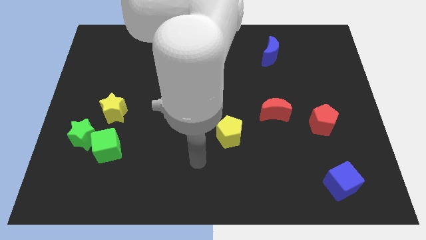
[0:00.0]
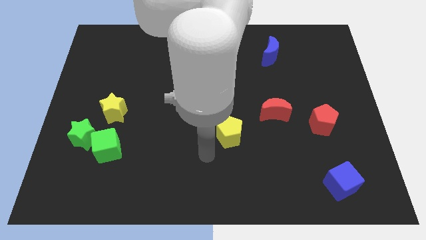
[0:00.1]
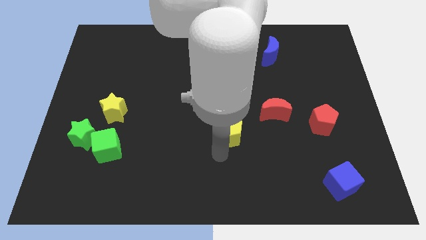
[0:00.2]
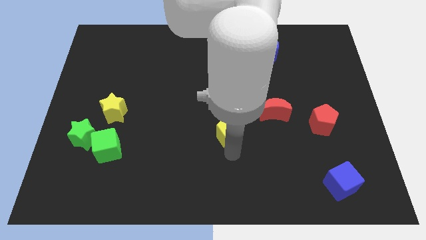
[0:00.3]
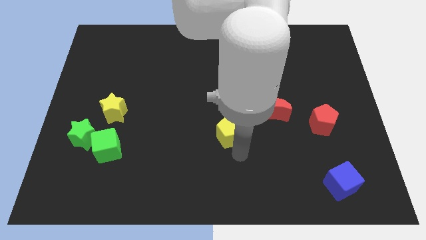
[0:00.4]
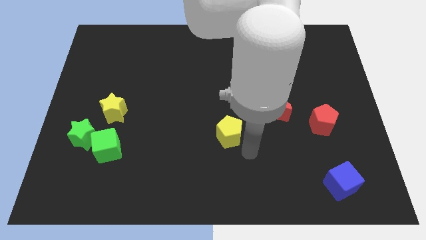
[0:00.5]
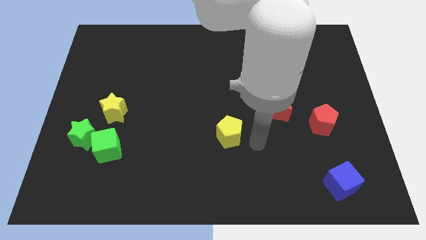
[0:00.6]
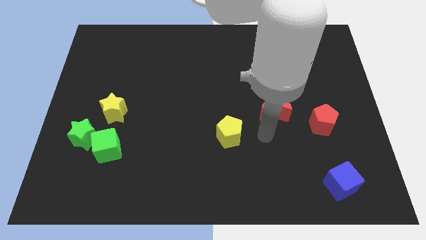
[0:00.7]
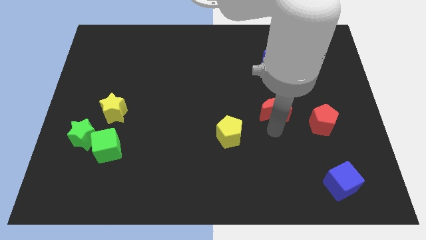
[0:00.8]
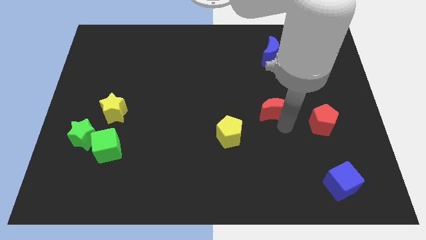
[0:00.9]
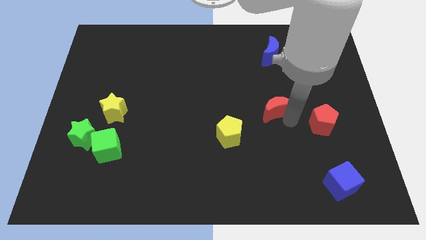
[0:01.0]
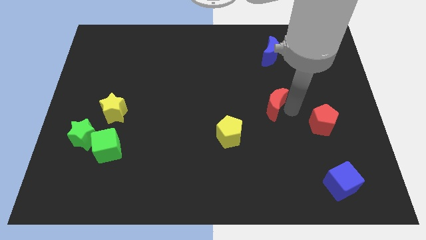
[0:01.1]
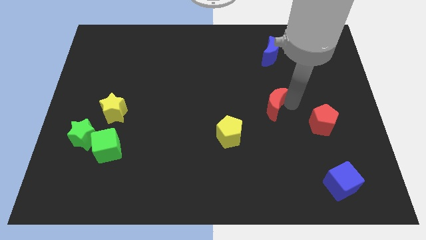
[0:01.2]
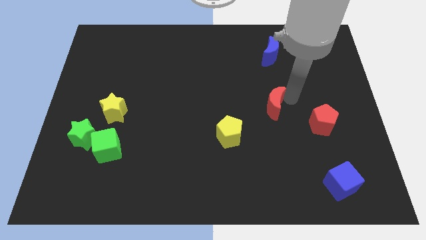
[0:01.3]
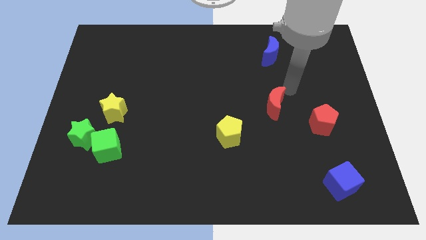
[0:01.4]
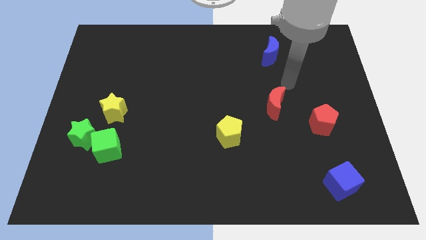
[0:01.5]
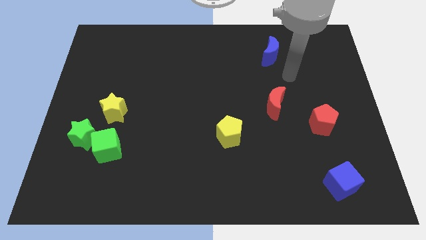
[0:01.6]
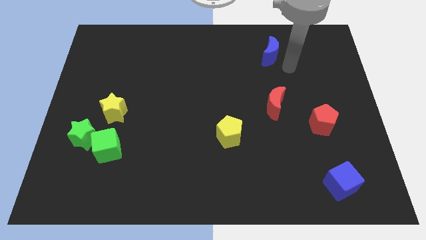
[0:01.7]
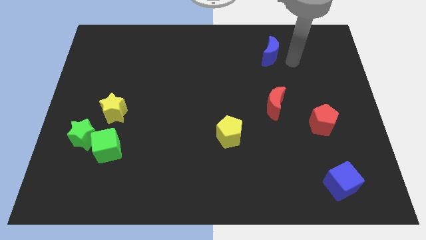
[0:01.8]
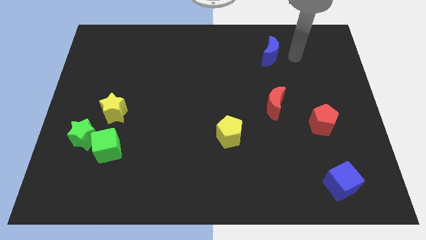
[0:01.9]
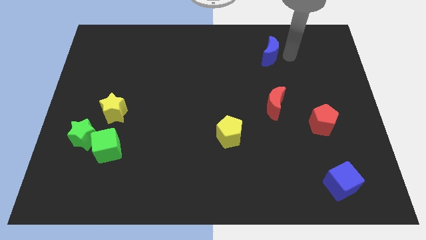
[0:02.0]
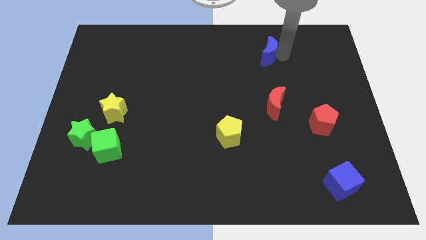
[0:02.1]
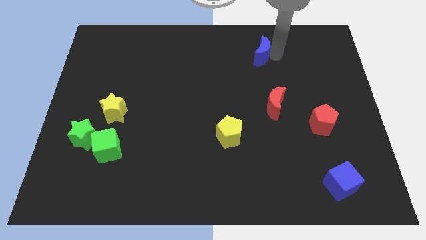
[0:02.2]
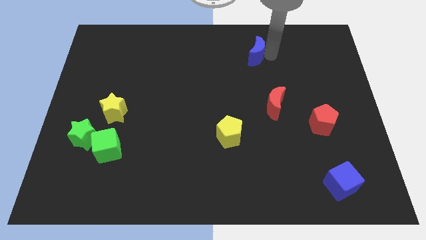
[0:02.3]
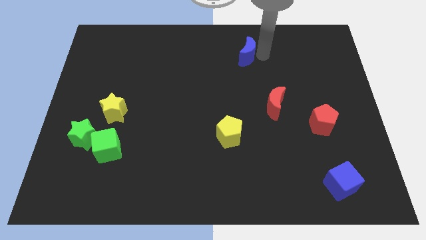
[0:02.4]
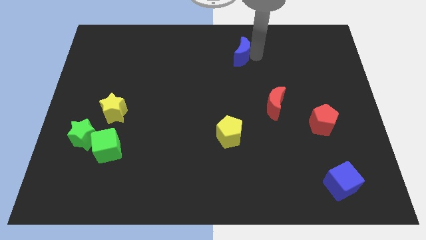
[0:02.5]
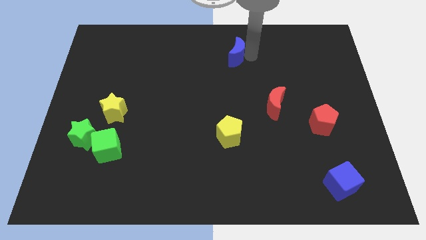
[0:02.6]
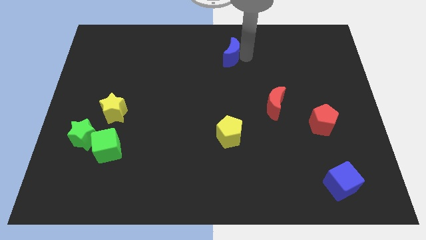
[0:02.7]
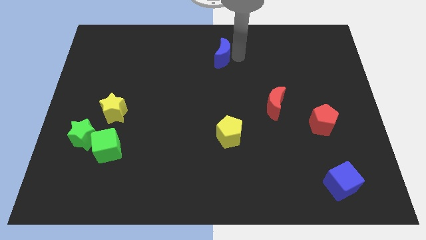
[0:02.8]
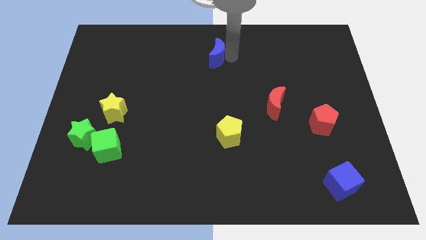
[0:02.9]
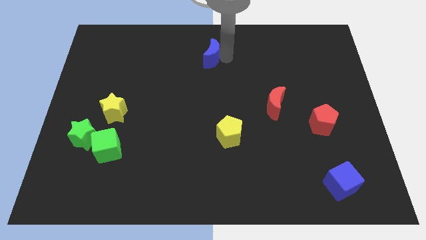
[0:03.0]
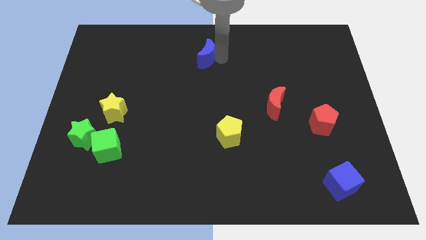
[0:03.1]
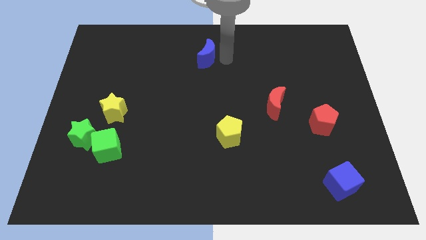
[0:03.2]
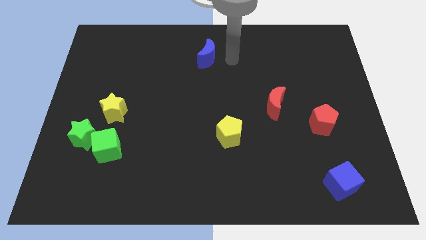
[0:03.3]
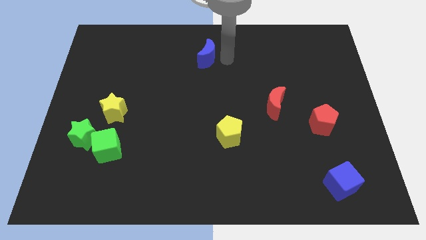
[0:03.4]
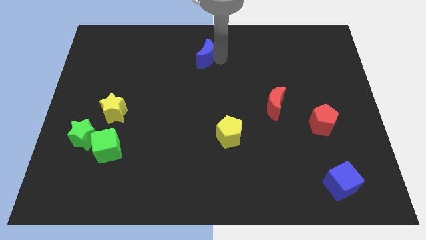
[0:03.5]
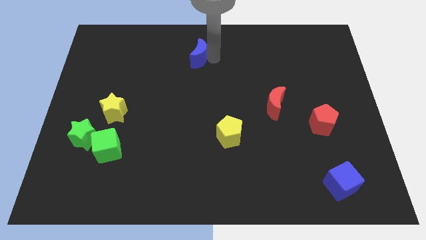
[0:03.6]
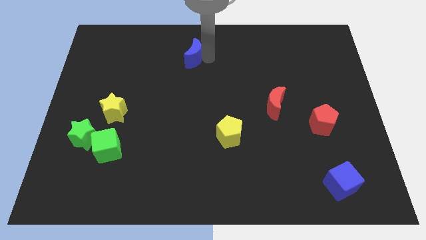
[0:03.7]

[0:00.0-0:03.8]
push the blue moon left

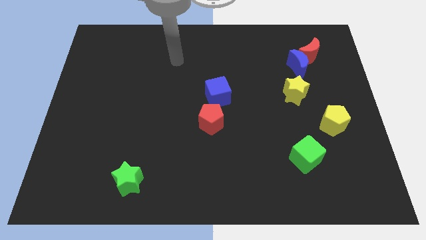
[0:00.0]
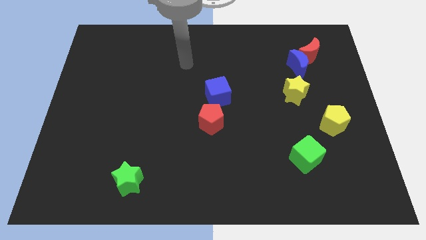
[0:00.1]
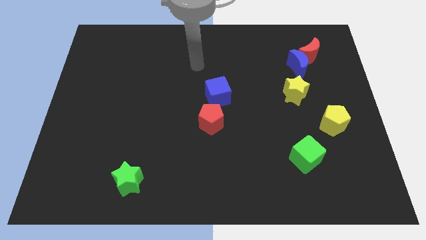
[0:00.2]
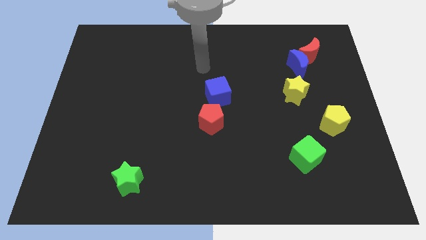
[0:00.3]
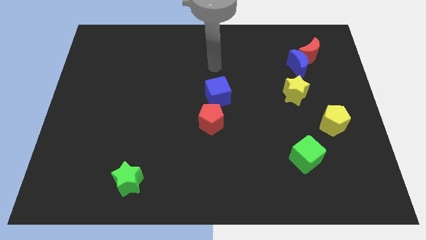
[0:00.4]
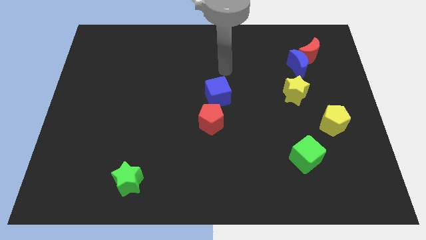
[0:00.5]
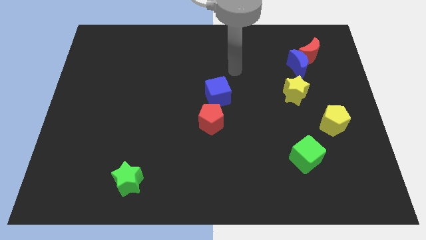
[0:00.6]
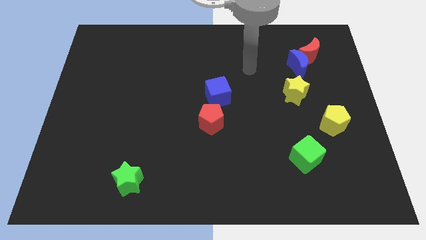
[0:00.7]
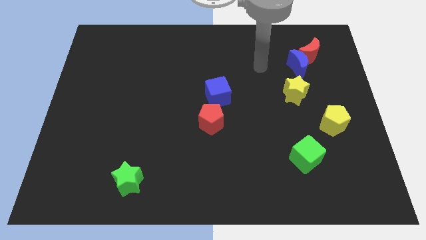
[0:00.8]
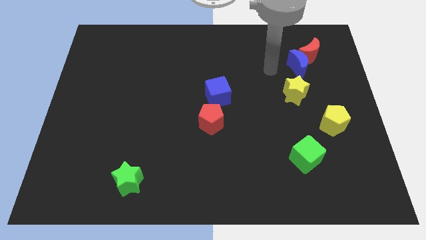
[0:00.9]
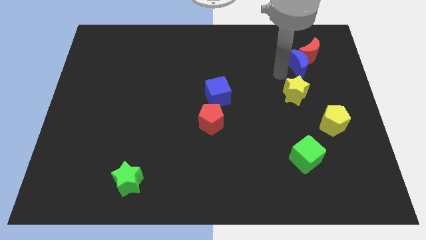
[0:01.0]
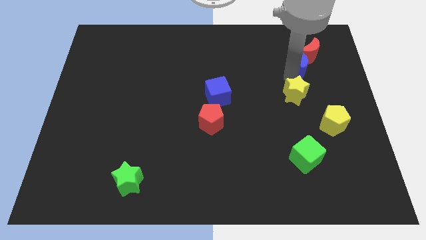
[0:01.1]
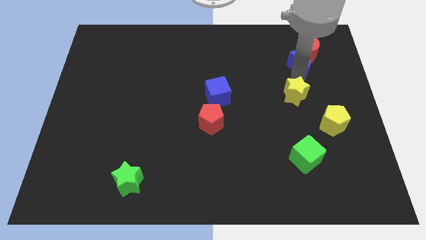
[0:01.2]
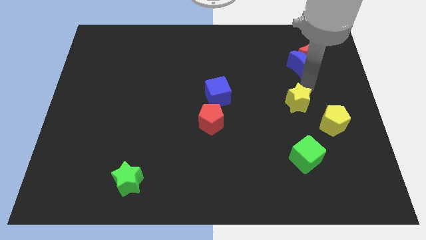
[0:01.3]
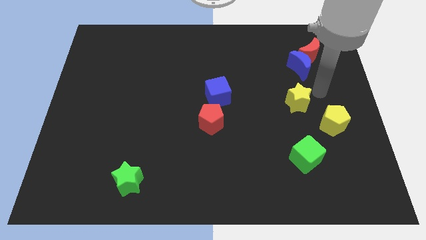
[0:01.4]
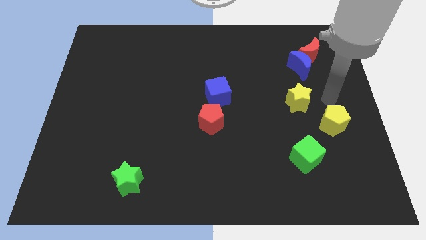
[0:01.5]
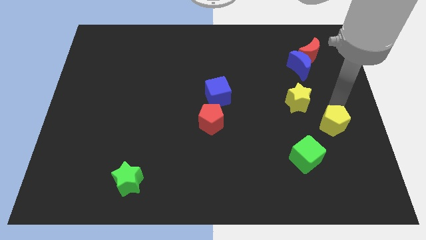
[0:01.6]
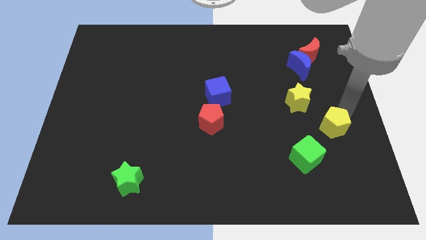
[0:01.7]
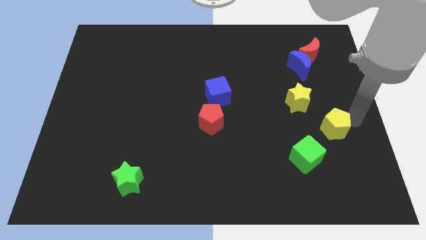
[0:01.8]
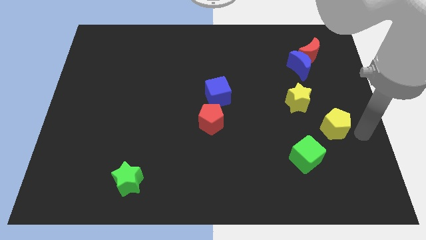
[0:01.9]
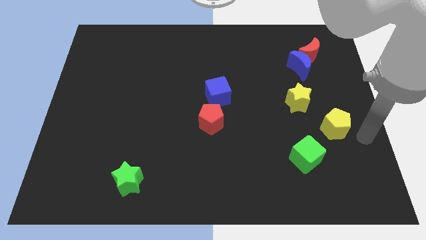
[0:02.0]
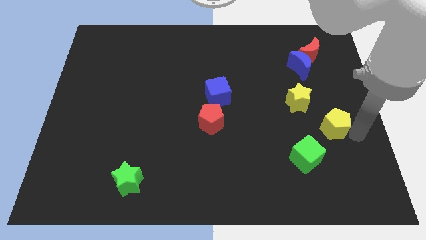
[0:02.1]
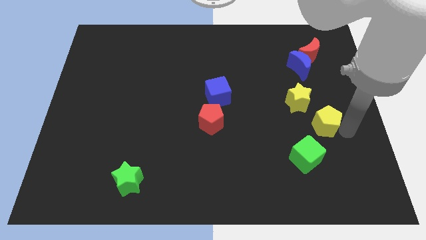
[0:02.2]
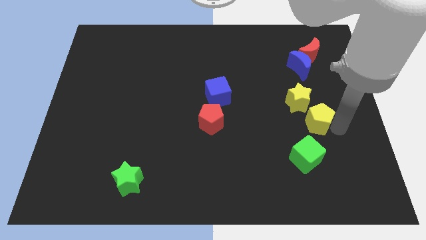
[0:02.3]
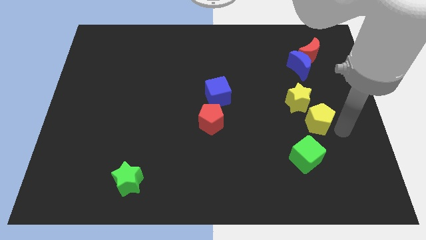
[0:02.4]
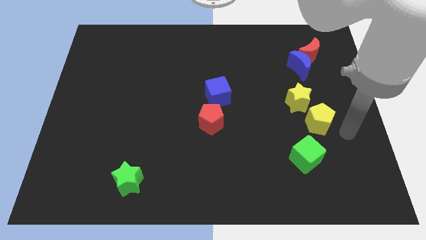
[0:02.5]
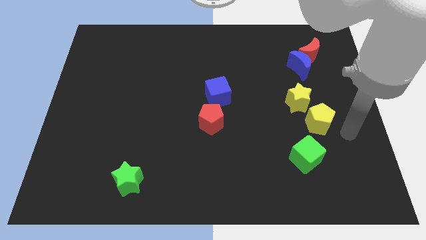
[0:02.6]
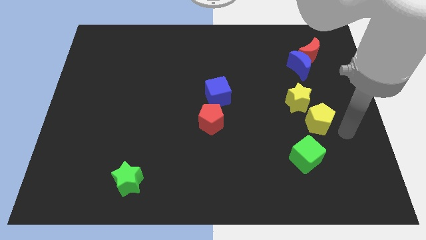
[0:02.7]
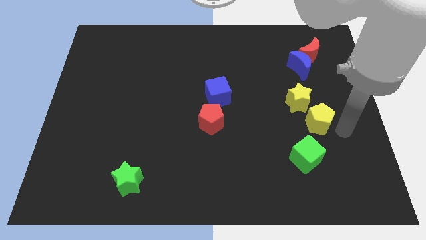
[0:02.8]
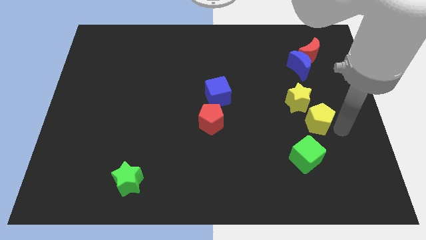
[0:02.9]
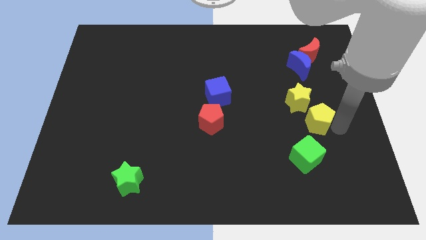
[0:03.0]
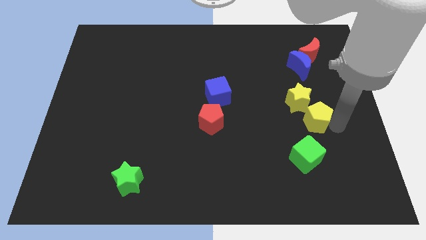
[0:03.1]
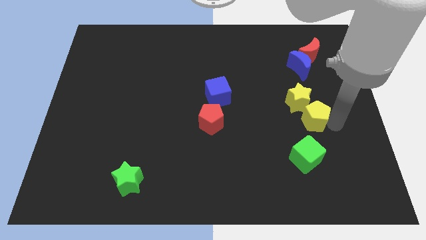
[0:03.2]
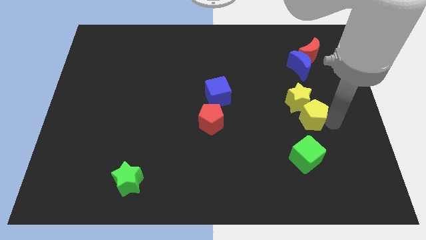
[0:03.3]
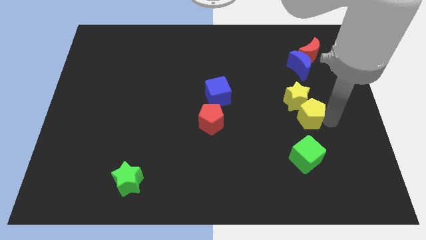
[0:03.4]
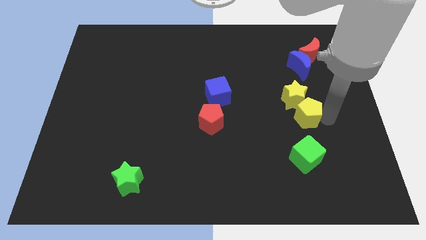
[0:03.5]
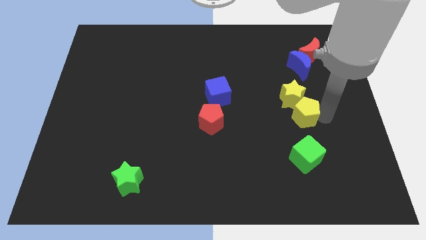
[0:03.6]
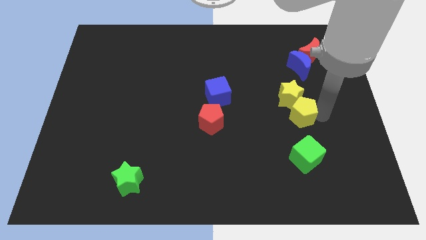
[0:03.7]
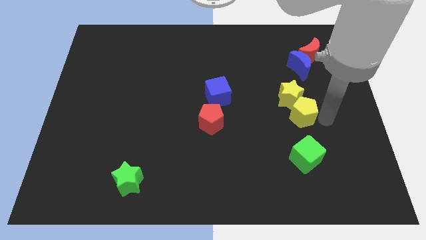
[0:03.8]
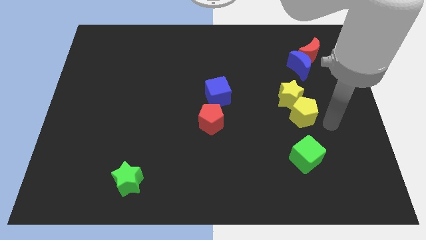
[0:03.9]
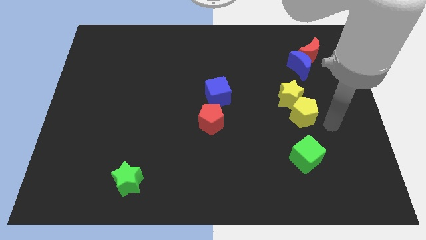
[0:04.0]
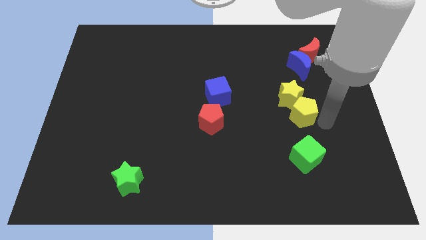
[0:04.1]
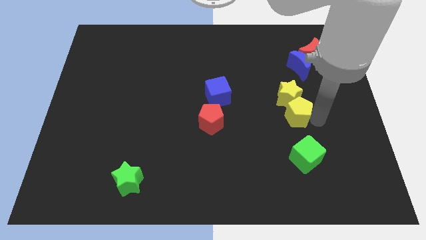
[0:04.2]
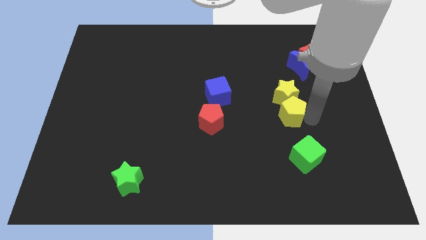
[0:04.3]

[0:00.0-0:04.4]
slide the yellow pentagon up and then to the left somewhat

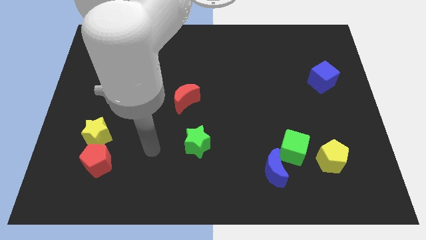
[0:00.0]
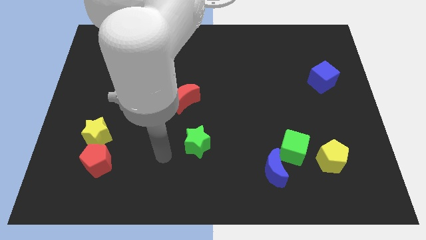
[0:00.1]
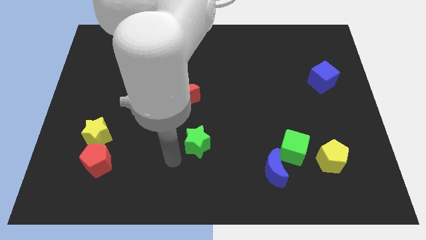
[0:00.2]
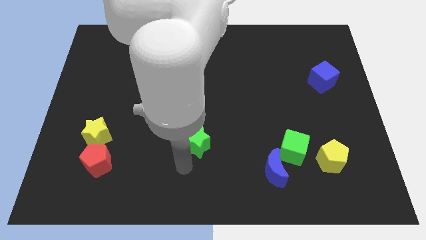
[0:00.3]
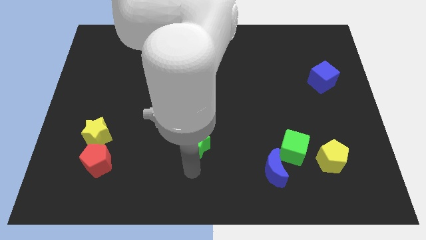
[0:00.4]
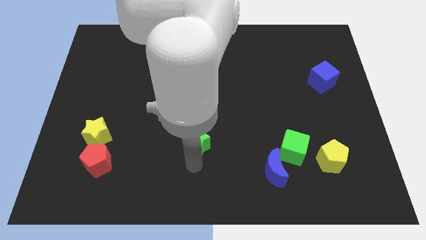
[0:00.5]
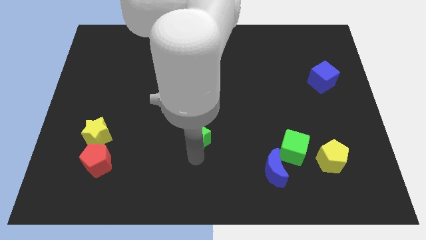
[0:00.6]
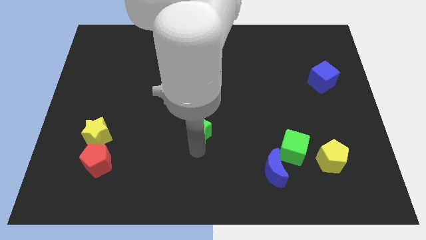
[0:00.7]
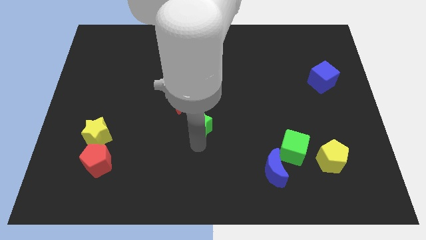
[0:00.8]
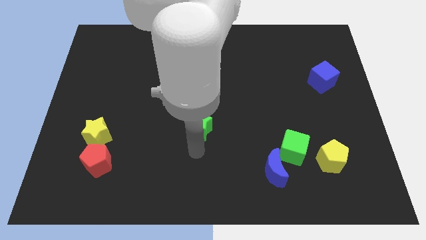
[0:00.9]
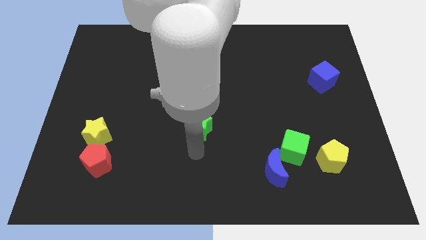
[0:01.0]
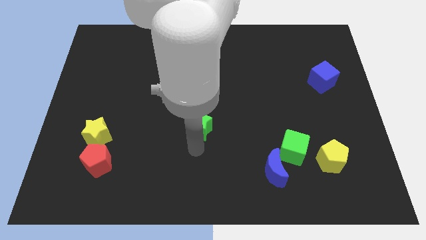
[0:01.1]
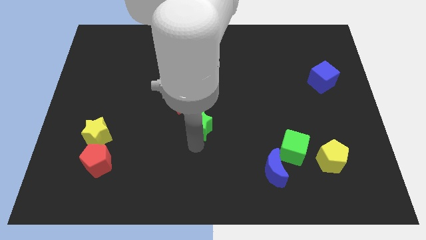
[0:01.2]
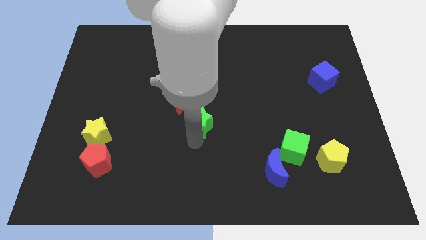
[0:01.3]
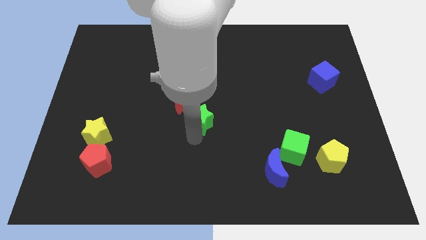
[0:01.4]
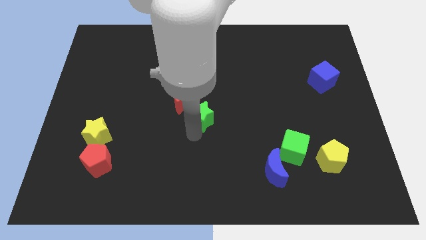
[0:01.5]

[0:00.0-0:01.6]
push the green star up a bit
